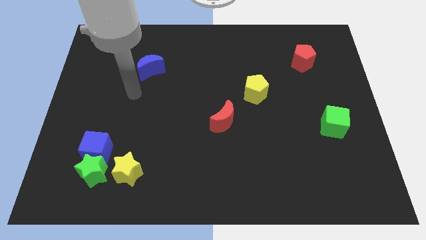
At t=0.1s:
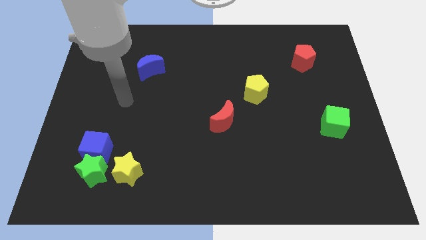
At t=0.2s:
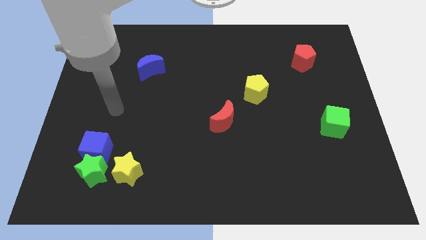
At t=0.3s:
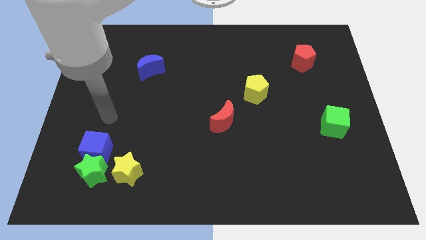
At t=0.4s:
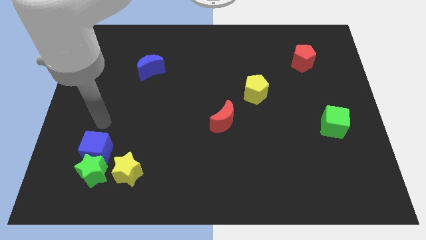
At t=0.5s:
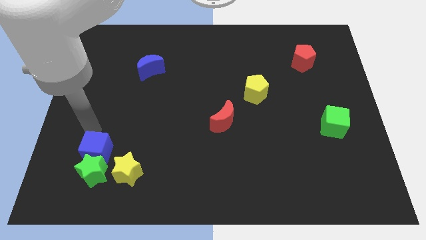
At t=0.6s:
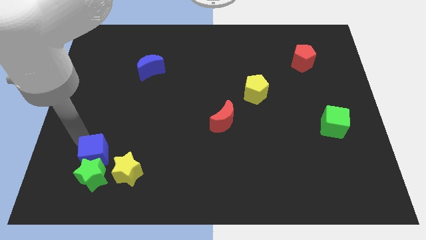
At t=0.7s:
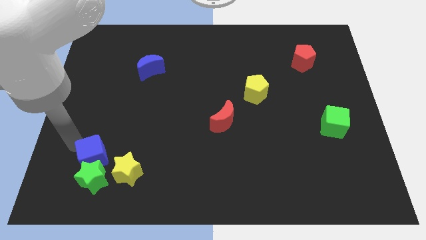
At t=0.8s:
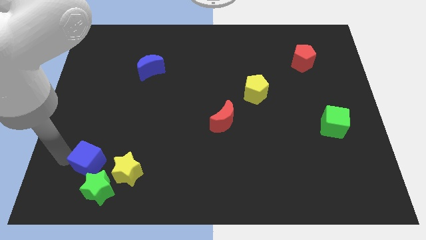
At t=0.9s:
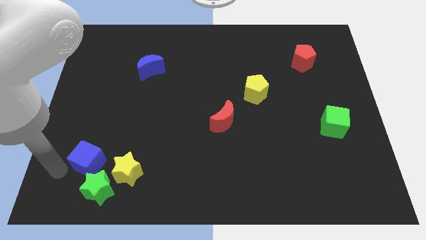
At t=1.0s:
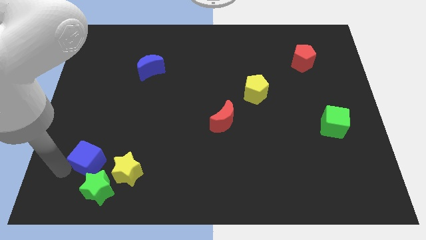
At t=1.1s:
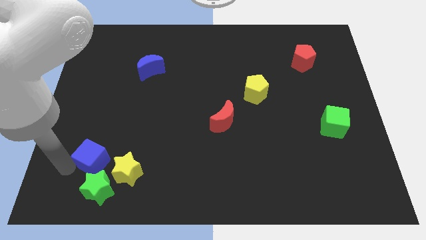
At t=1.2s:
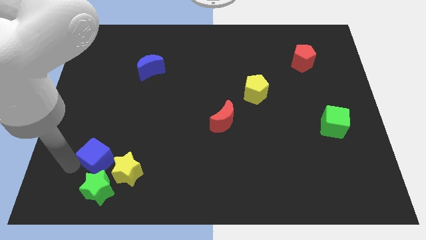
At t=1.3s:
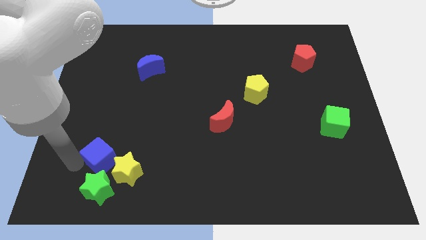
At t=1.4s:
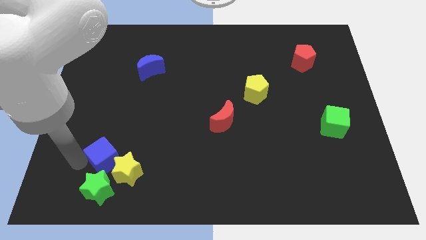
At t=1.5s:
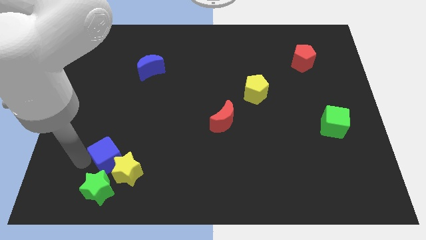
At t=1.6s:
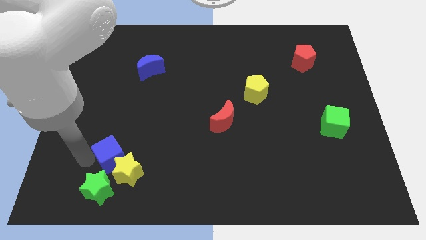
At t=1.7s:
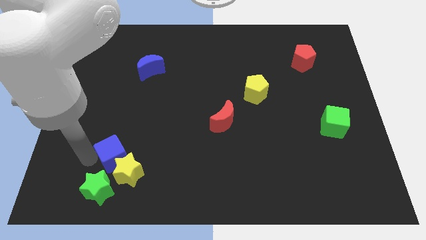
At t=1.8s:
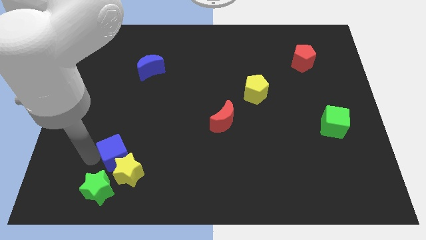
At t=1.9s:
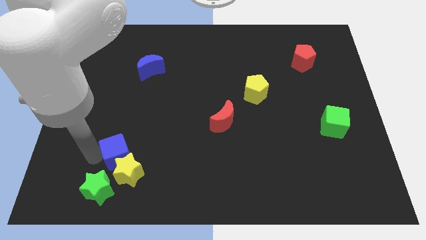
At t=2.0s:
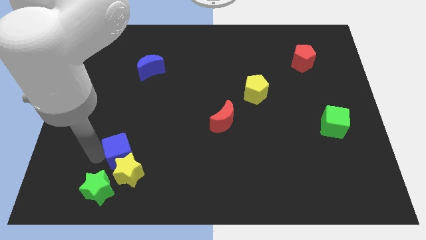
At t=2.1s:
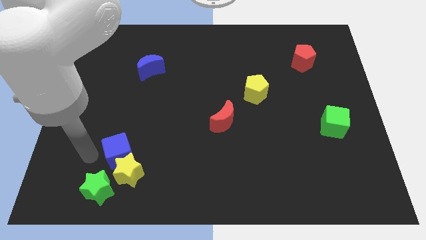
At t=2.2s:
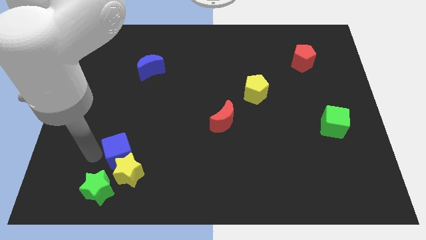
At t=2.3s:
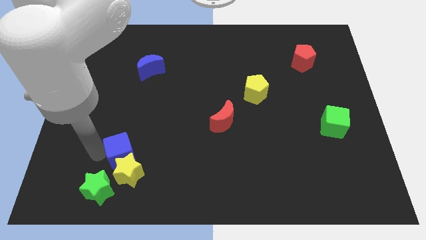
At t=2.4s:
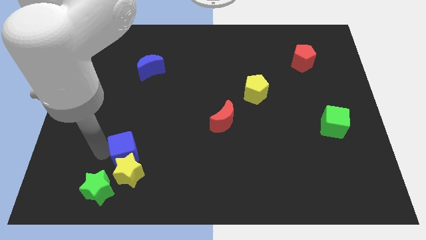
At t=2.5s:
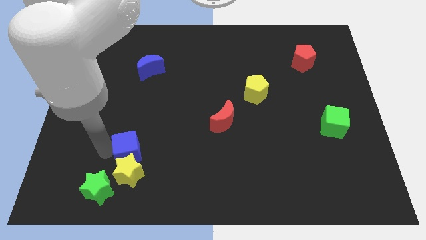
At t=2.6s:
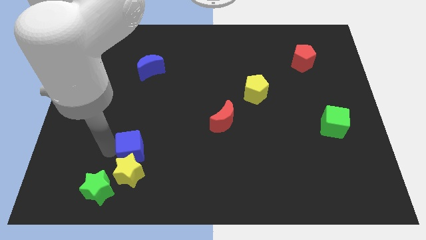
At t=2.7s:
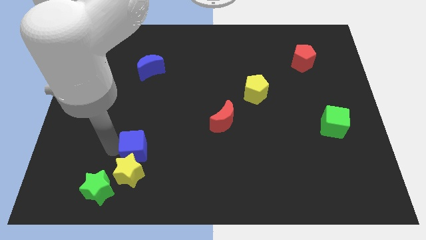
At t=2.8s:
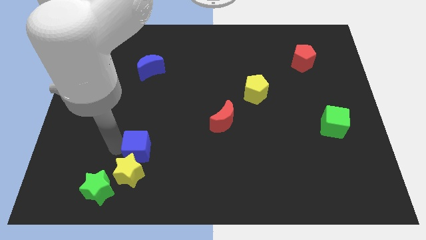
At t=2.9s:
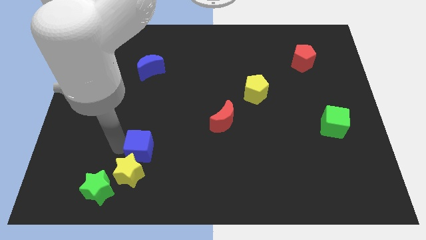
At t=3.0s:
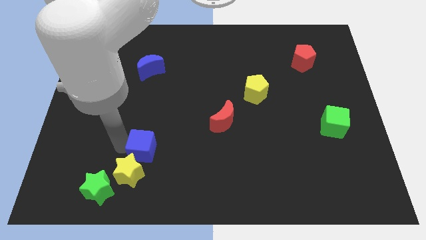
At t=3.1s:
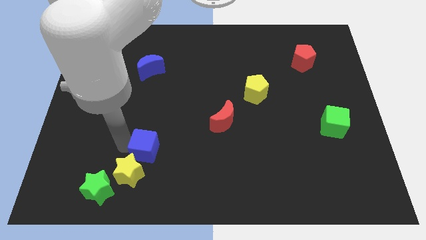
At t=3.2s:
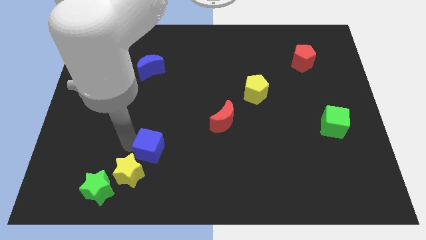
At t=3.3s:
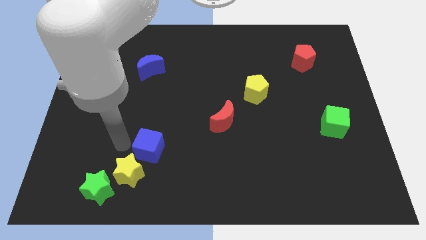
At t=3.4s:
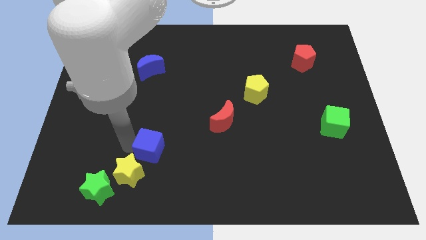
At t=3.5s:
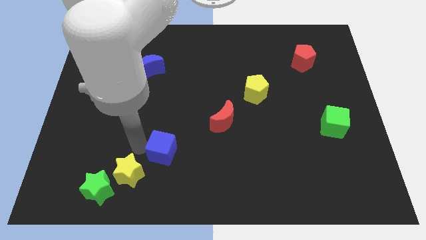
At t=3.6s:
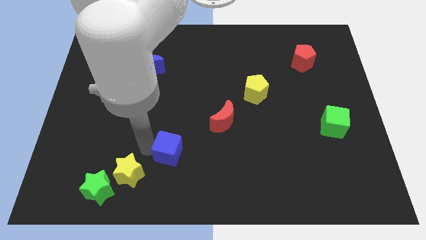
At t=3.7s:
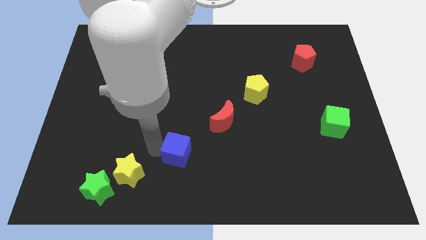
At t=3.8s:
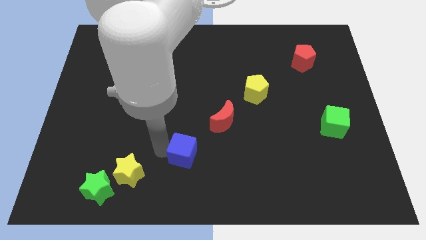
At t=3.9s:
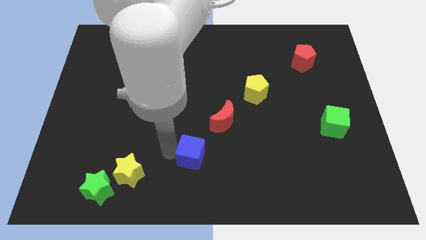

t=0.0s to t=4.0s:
push the blue cube right

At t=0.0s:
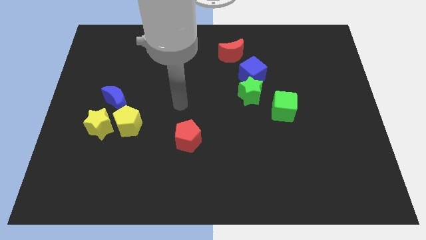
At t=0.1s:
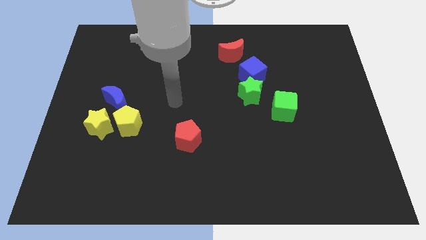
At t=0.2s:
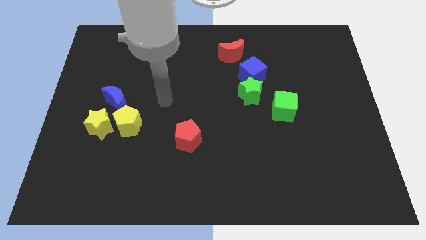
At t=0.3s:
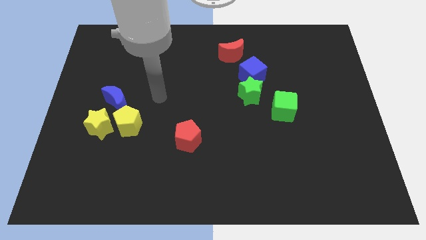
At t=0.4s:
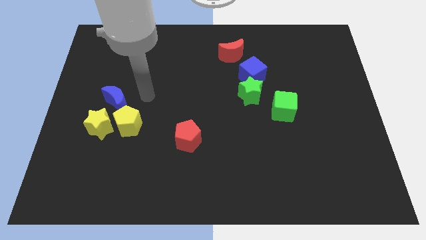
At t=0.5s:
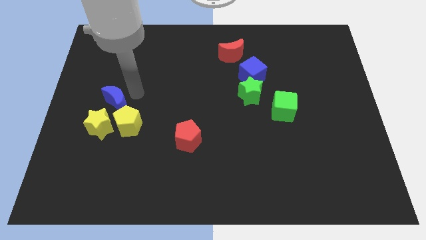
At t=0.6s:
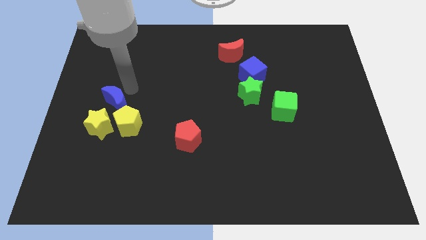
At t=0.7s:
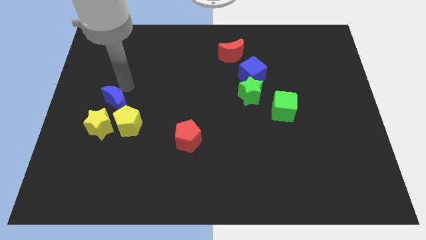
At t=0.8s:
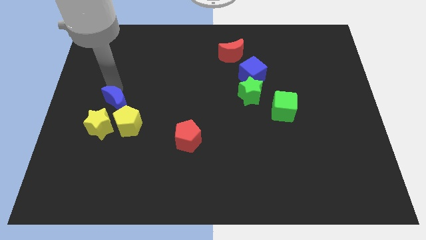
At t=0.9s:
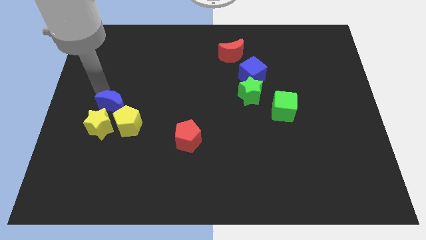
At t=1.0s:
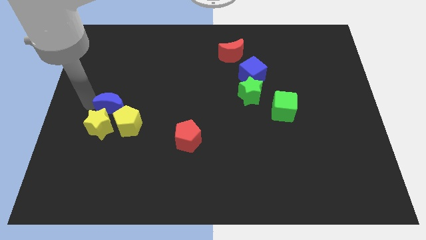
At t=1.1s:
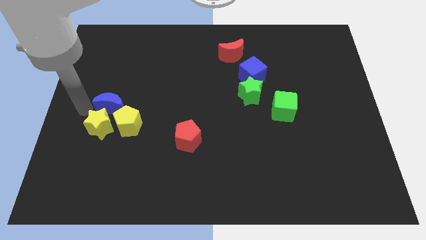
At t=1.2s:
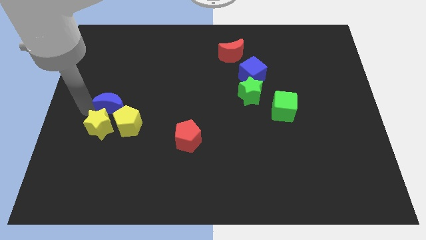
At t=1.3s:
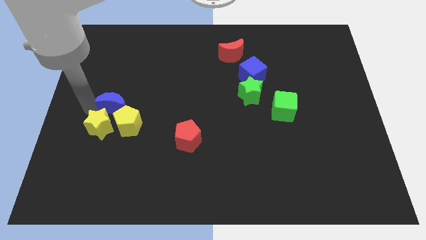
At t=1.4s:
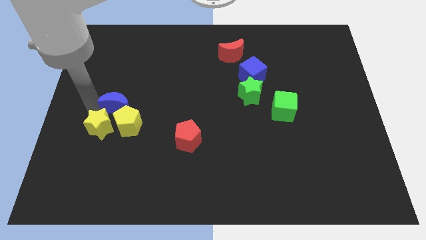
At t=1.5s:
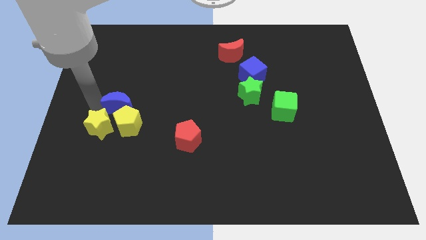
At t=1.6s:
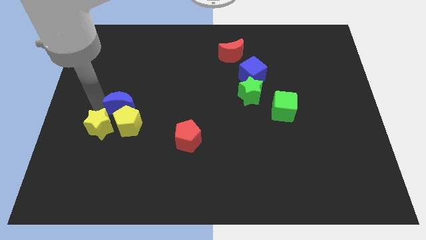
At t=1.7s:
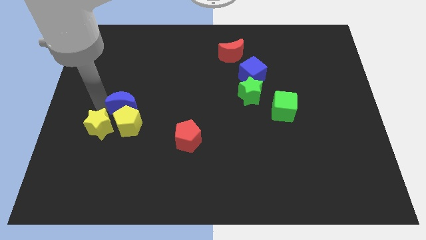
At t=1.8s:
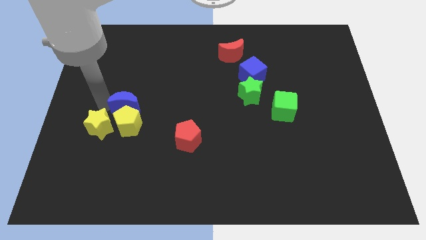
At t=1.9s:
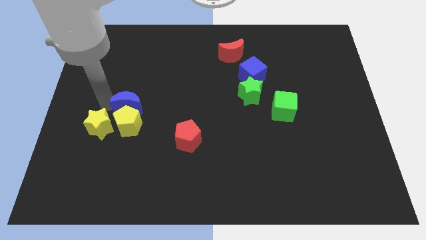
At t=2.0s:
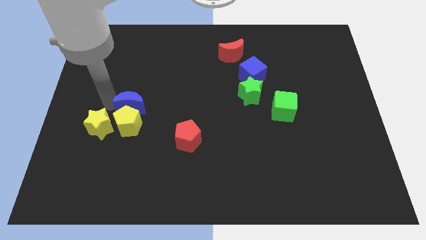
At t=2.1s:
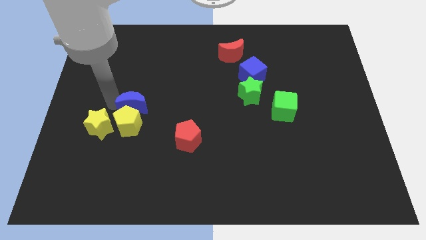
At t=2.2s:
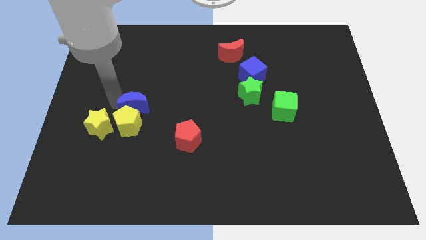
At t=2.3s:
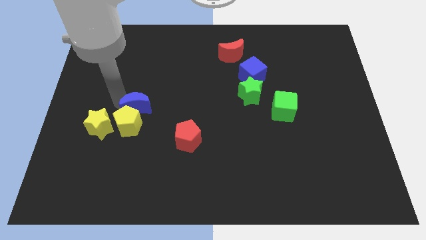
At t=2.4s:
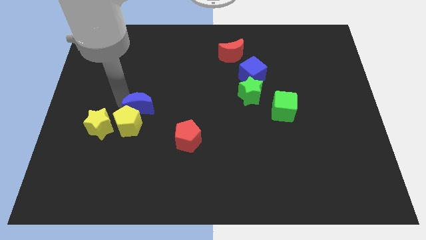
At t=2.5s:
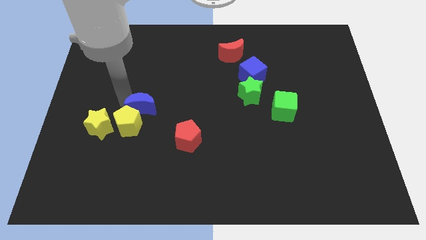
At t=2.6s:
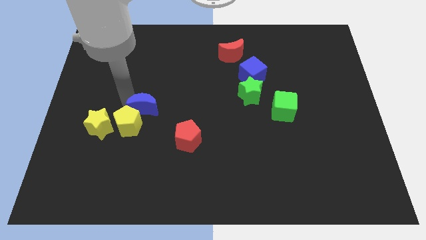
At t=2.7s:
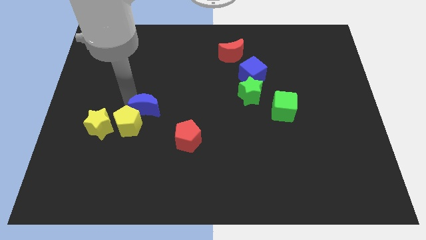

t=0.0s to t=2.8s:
slightly move the blue moon right

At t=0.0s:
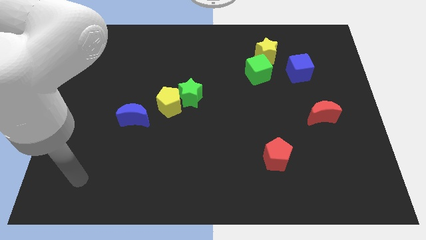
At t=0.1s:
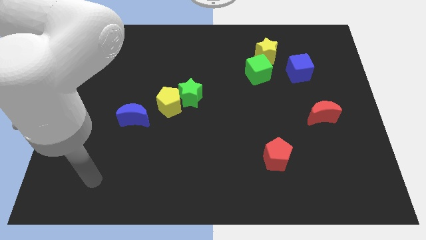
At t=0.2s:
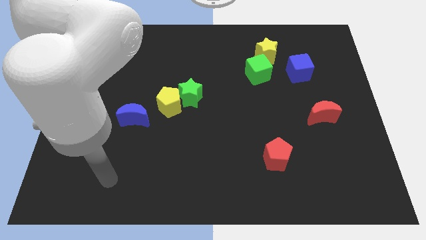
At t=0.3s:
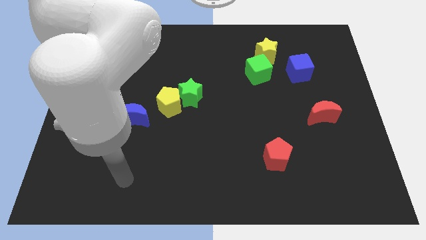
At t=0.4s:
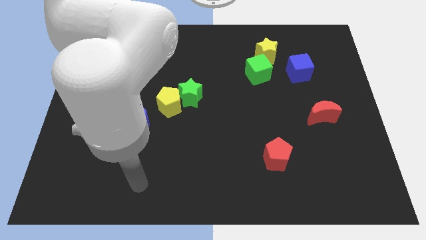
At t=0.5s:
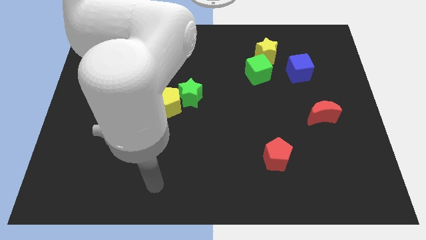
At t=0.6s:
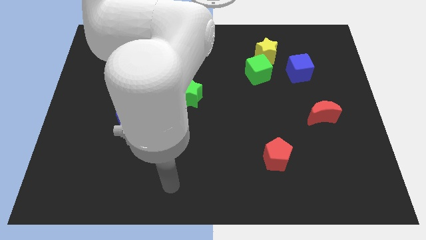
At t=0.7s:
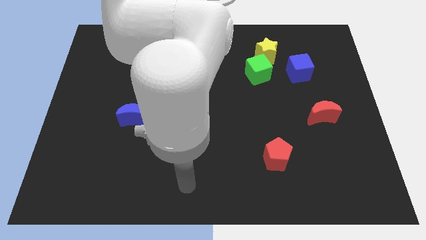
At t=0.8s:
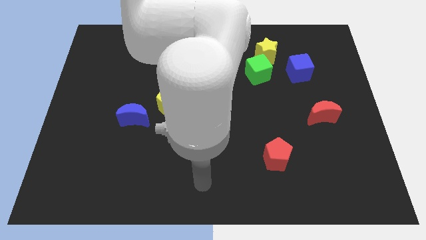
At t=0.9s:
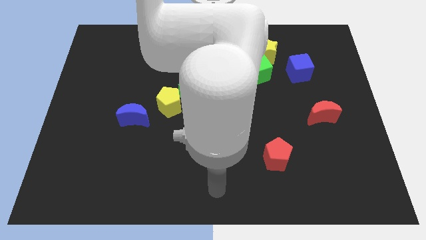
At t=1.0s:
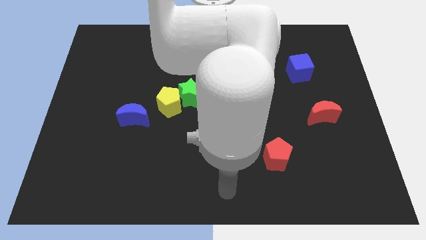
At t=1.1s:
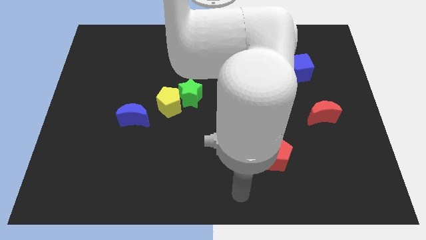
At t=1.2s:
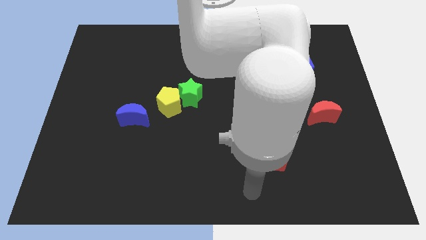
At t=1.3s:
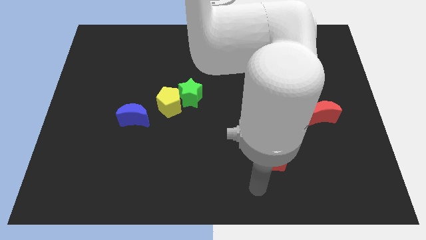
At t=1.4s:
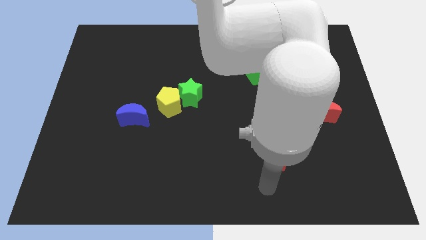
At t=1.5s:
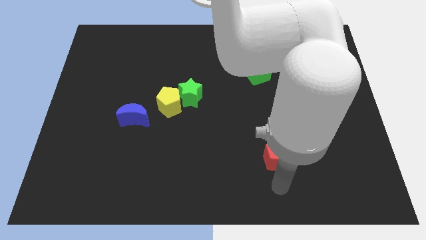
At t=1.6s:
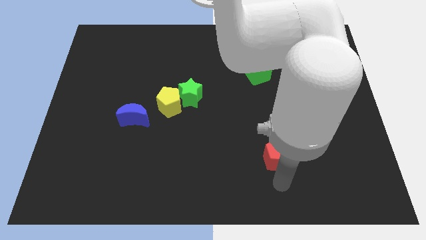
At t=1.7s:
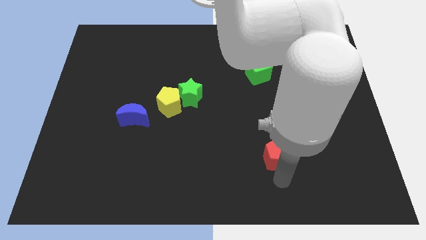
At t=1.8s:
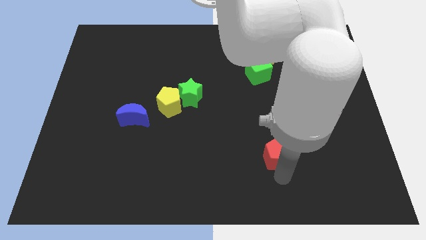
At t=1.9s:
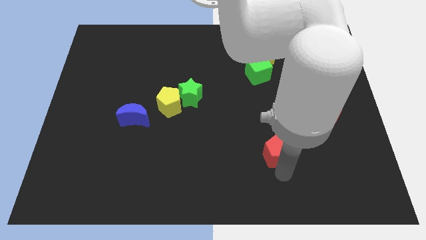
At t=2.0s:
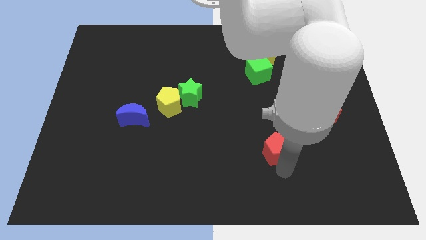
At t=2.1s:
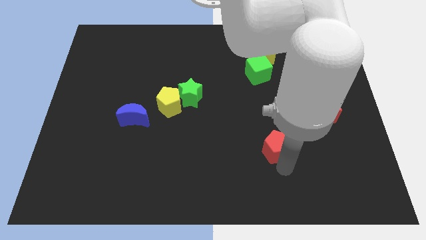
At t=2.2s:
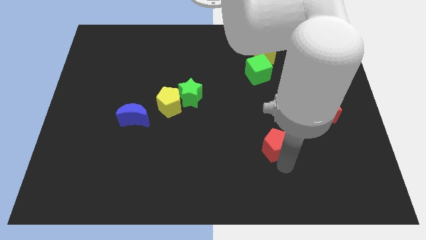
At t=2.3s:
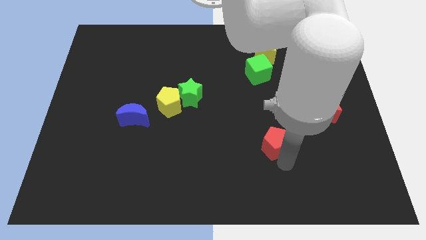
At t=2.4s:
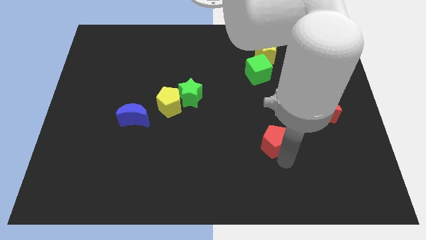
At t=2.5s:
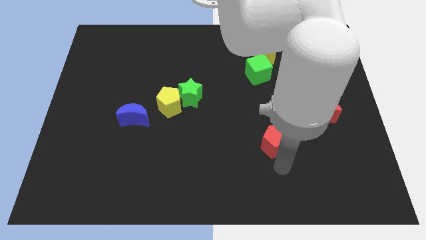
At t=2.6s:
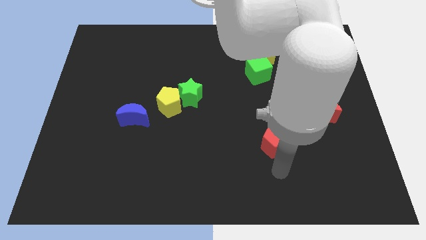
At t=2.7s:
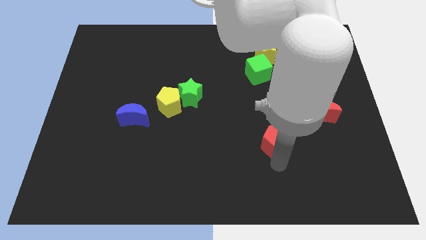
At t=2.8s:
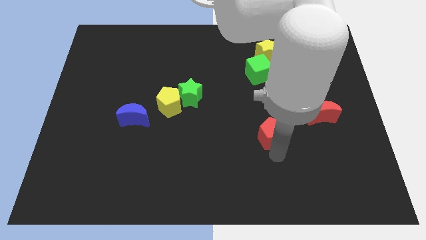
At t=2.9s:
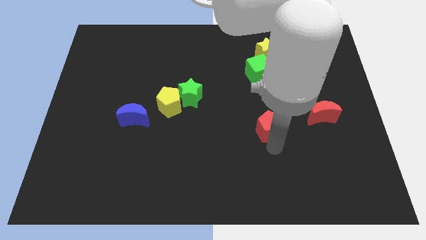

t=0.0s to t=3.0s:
slide the red pentagon somewhat upwards